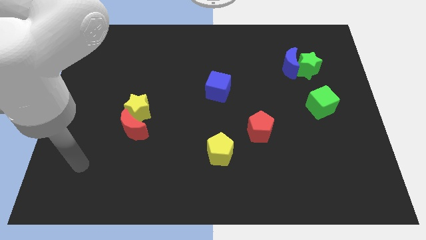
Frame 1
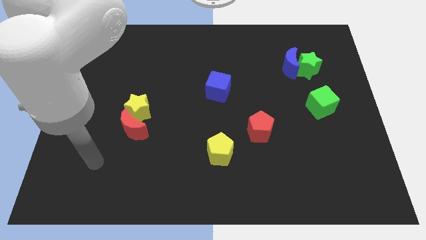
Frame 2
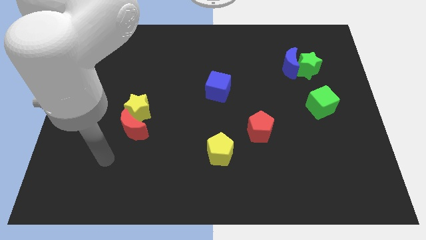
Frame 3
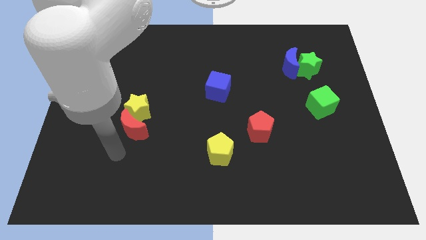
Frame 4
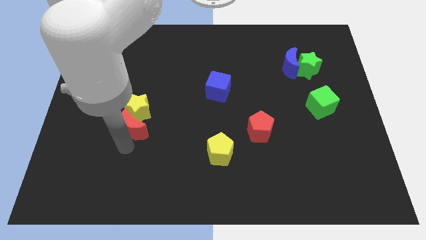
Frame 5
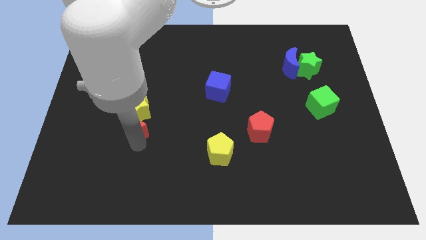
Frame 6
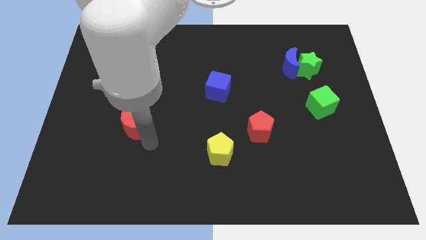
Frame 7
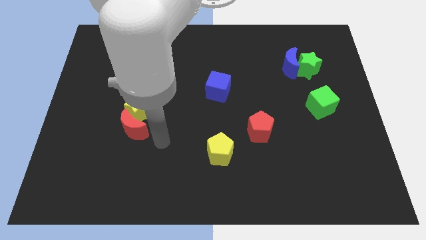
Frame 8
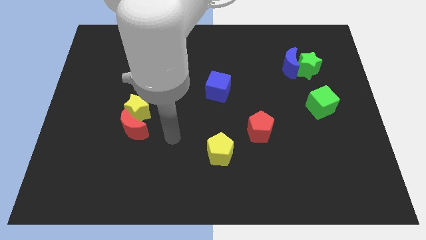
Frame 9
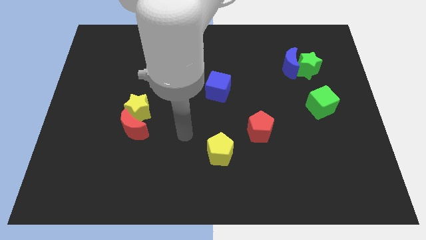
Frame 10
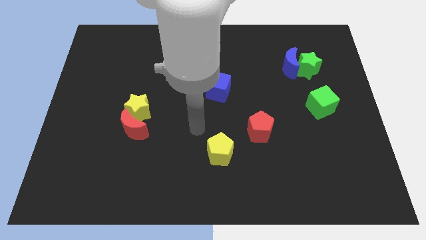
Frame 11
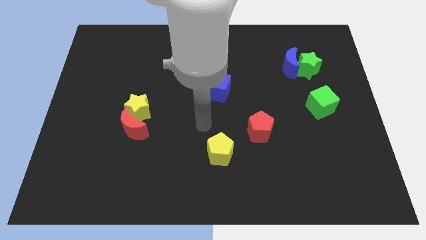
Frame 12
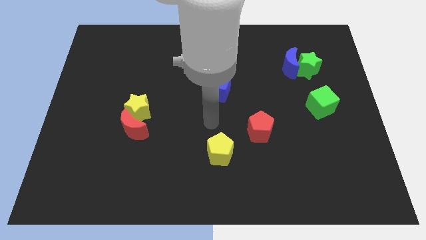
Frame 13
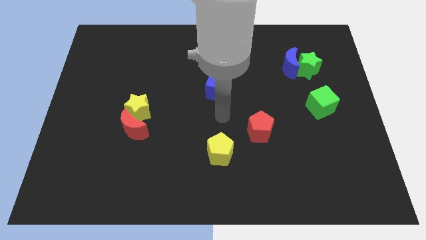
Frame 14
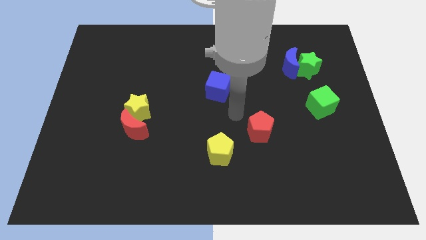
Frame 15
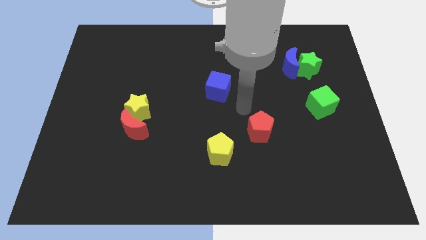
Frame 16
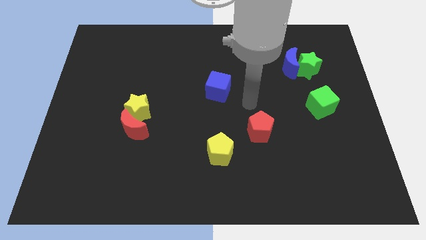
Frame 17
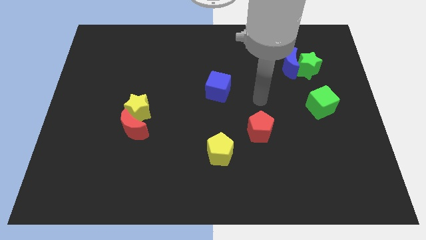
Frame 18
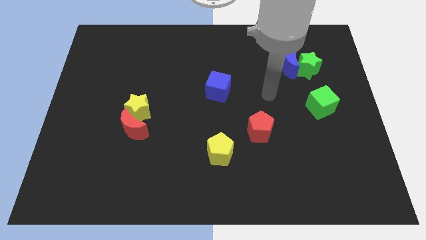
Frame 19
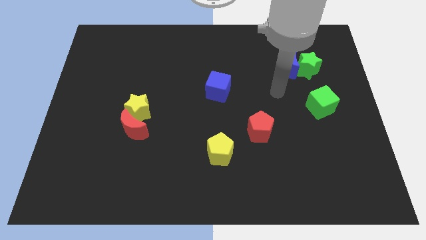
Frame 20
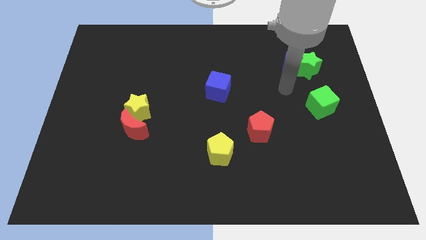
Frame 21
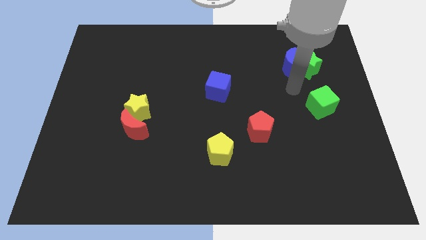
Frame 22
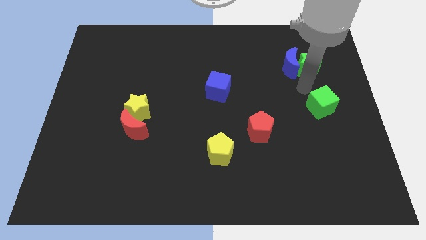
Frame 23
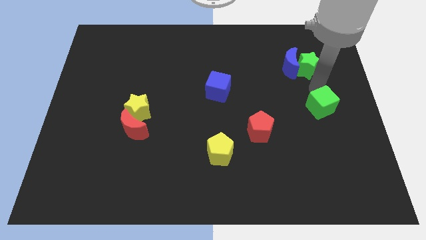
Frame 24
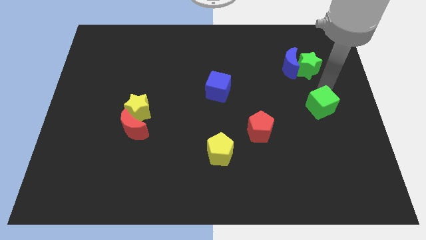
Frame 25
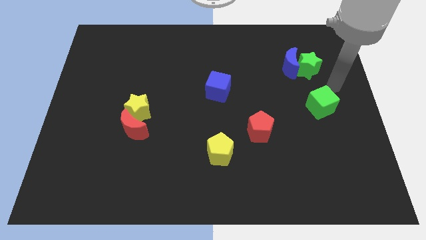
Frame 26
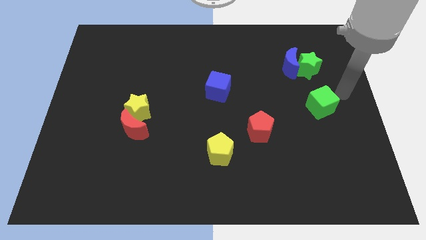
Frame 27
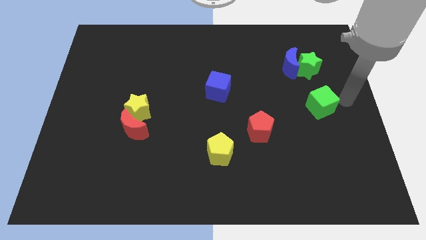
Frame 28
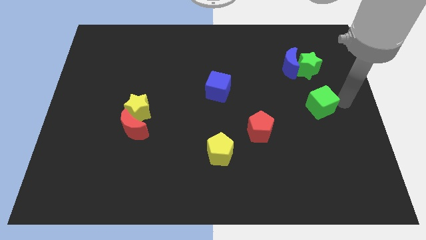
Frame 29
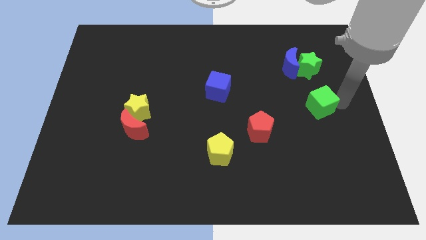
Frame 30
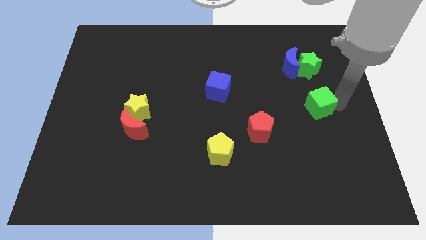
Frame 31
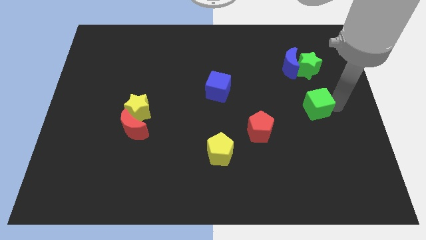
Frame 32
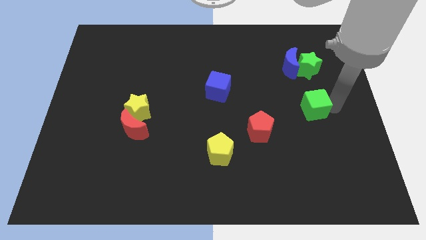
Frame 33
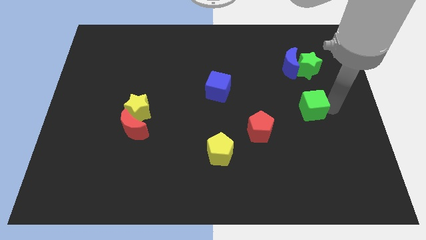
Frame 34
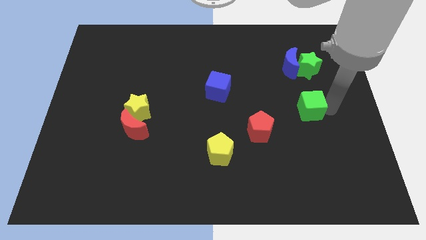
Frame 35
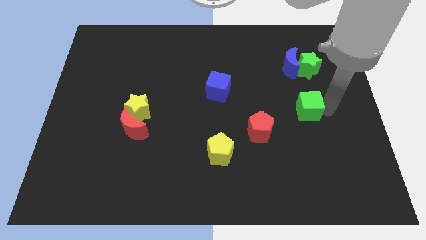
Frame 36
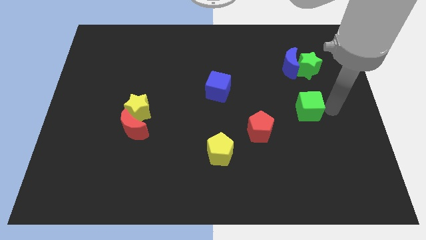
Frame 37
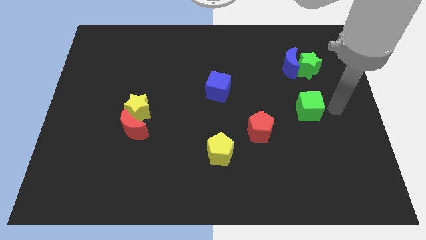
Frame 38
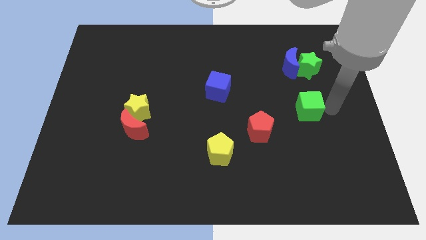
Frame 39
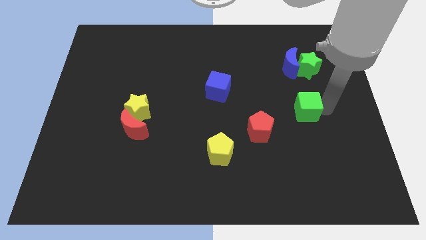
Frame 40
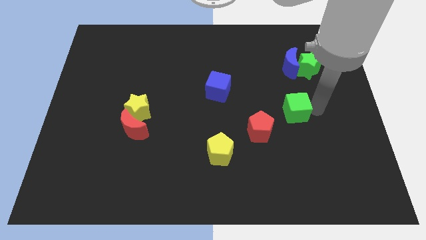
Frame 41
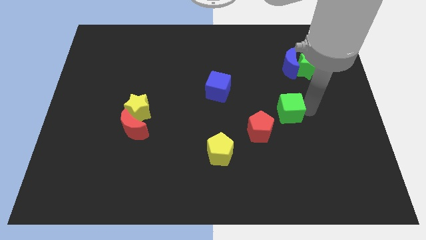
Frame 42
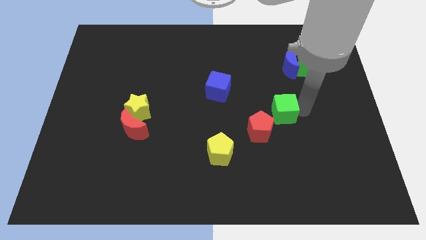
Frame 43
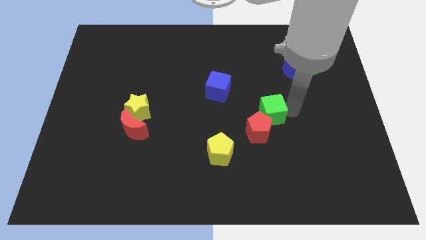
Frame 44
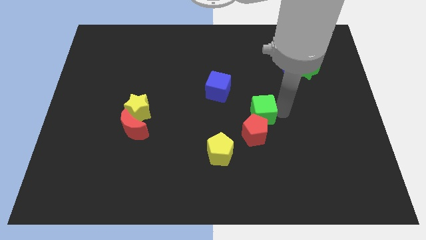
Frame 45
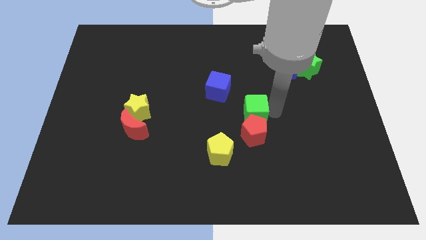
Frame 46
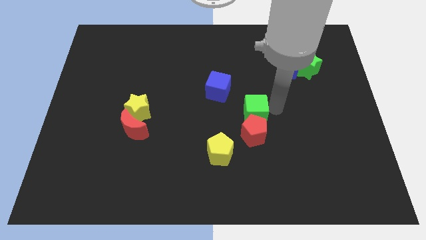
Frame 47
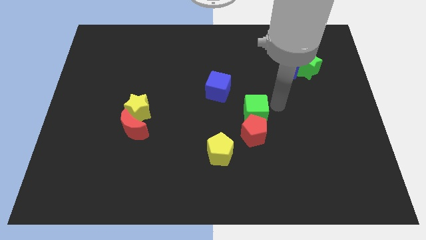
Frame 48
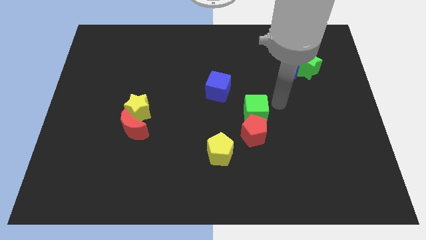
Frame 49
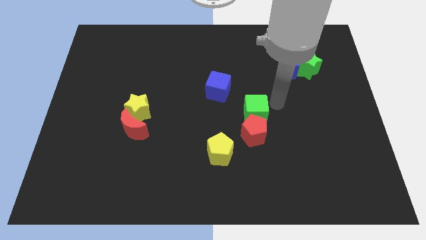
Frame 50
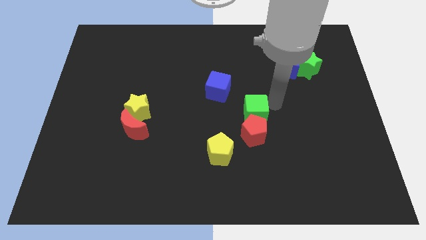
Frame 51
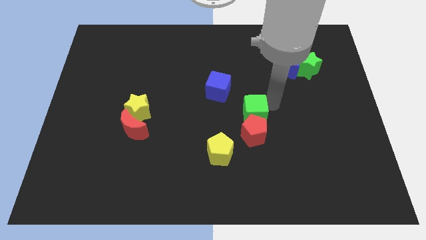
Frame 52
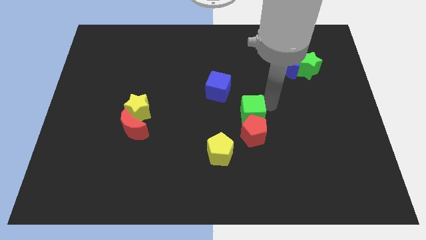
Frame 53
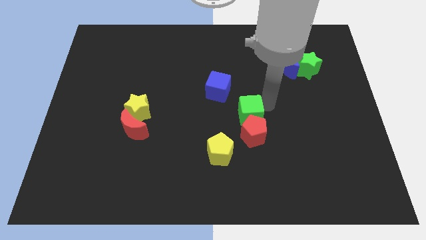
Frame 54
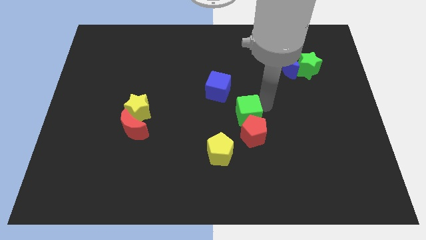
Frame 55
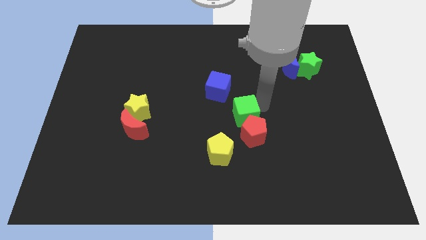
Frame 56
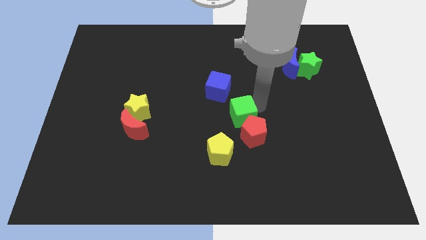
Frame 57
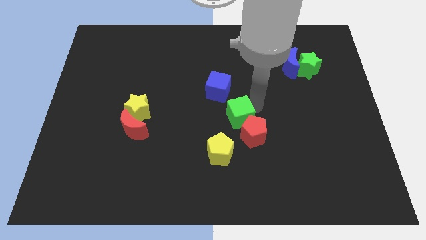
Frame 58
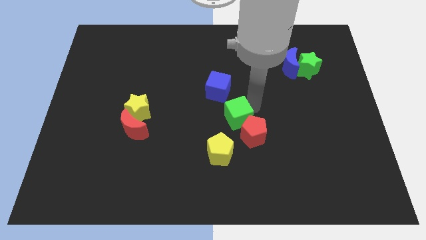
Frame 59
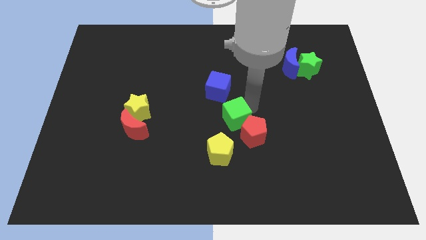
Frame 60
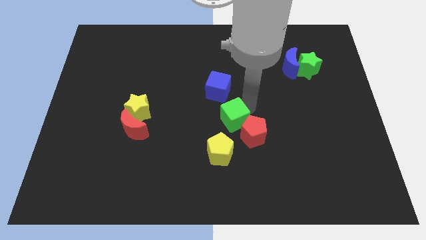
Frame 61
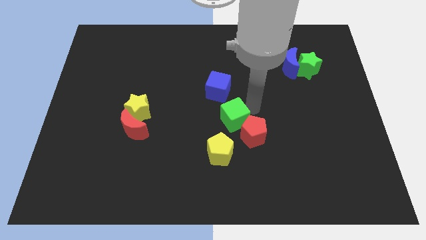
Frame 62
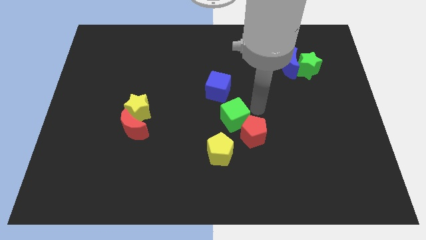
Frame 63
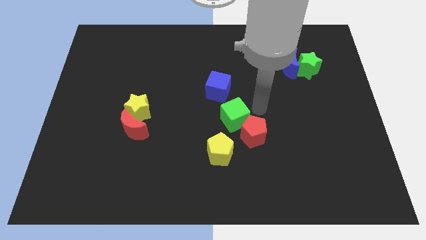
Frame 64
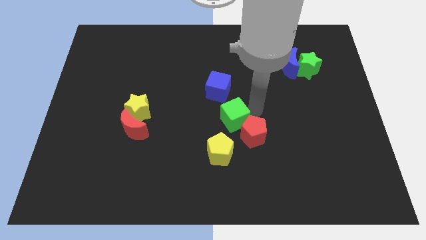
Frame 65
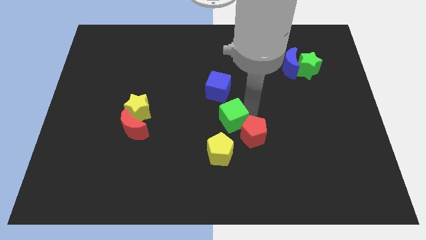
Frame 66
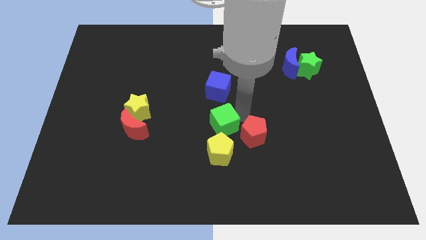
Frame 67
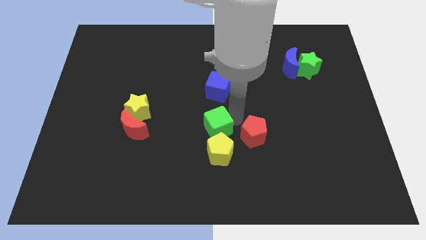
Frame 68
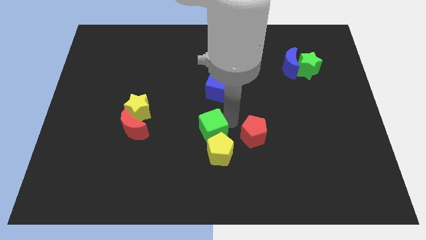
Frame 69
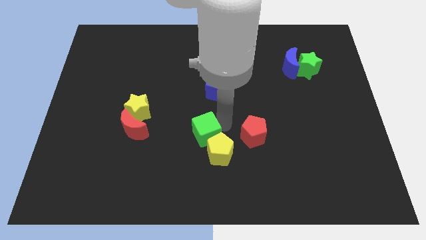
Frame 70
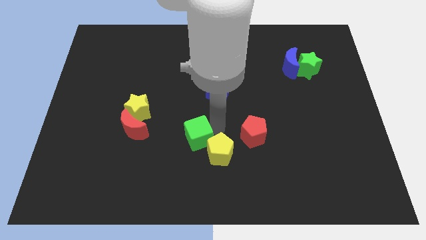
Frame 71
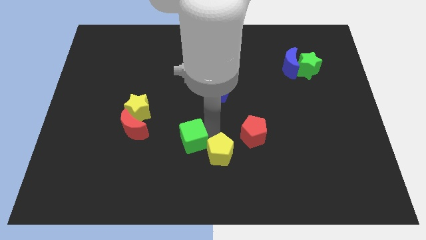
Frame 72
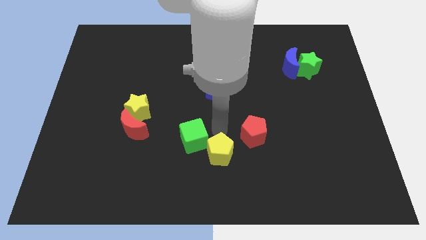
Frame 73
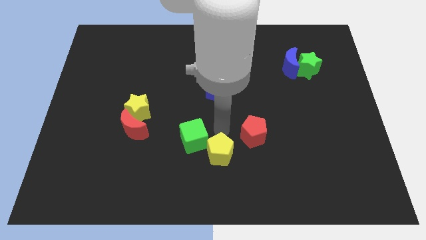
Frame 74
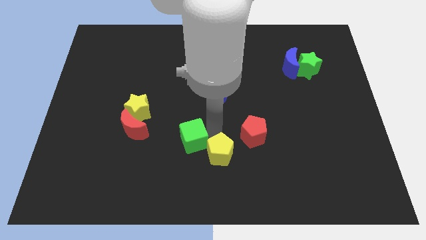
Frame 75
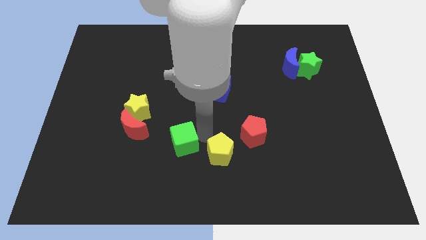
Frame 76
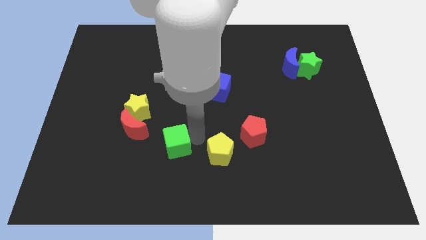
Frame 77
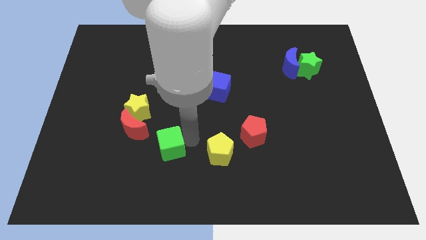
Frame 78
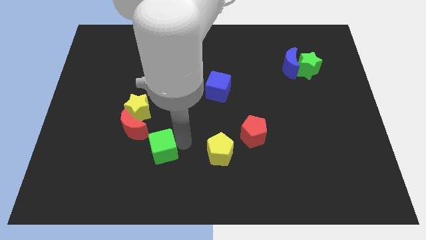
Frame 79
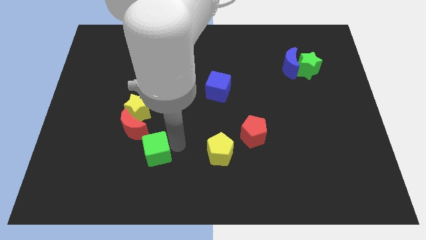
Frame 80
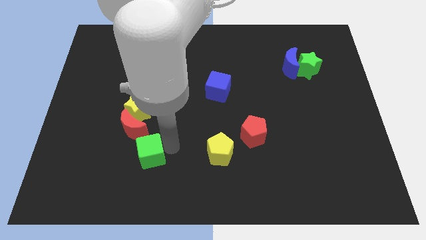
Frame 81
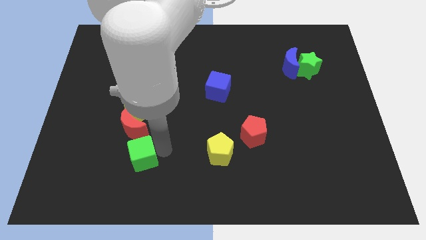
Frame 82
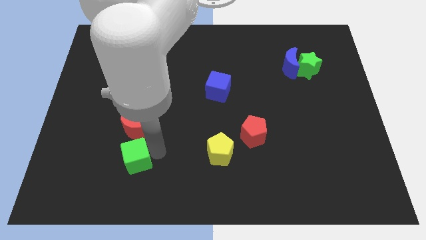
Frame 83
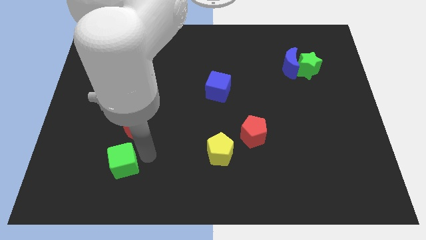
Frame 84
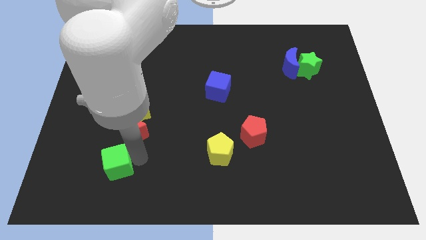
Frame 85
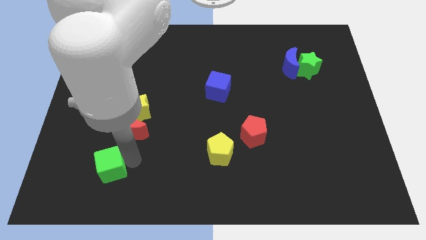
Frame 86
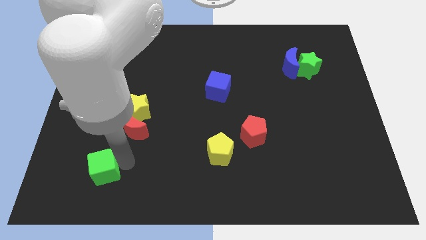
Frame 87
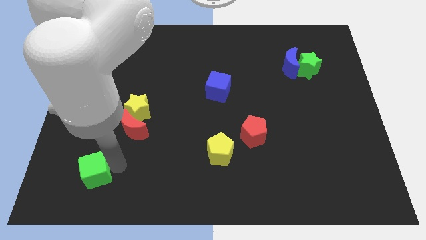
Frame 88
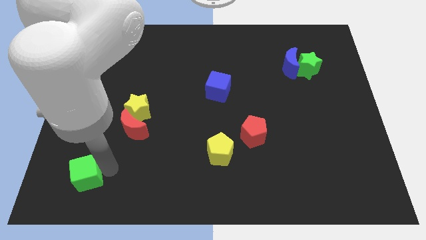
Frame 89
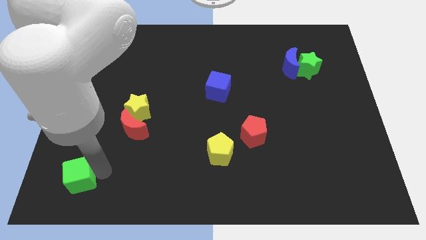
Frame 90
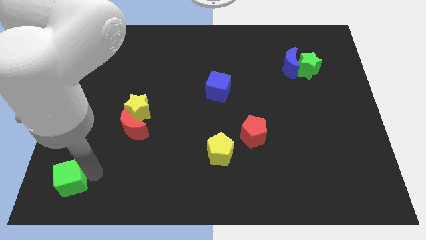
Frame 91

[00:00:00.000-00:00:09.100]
slide the green cube to the bottom left
